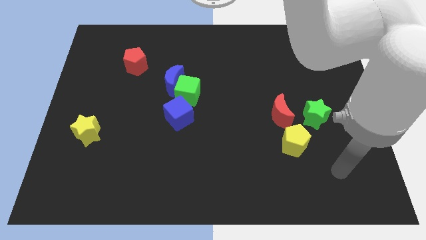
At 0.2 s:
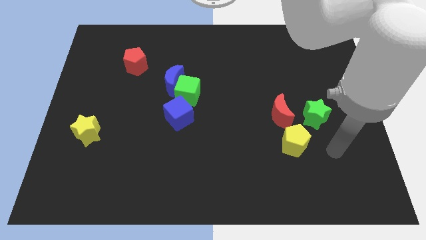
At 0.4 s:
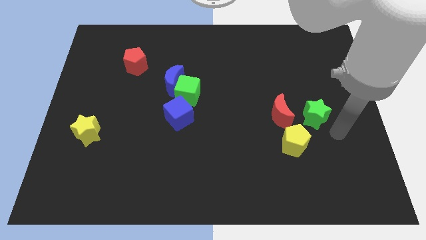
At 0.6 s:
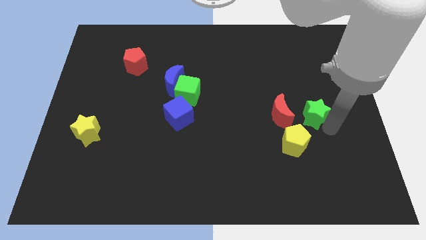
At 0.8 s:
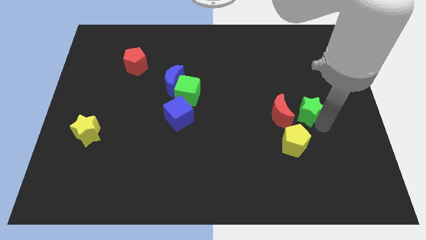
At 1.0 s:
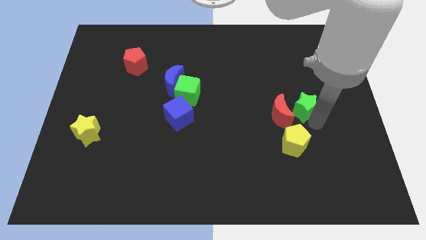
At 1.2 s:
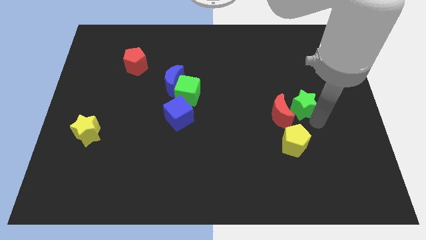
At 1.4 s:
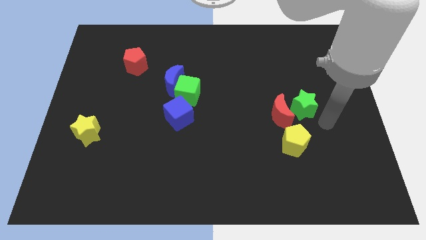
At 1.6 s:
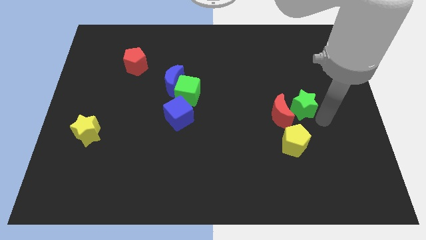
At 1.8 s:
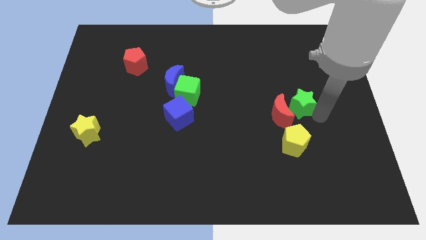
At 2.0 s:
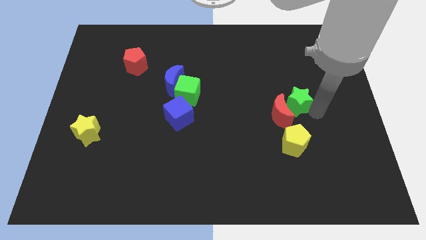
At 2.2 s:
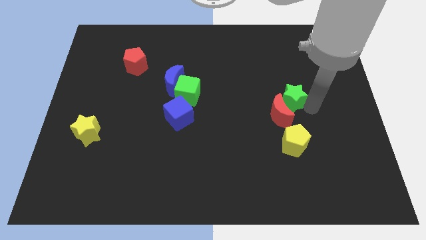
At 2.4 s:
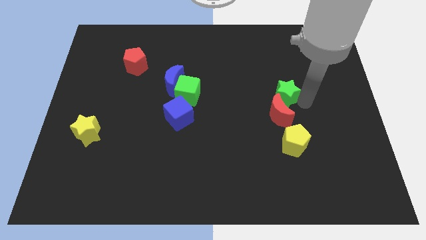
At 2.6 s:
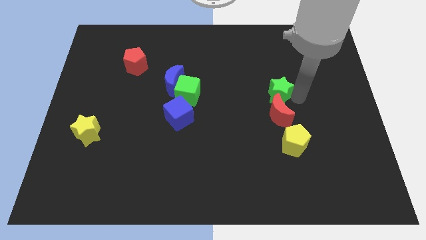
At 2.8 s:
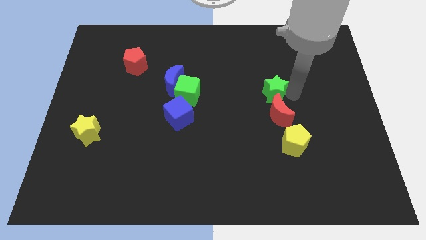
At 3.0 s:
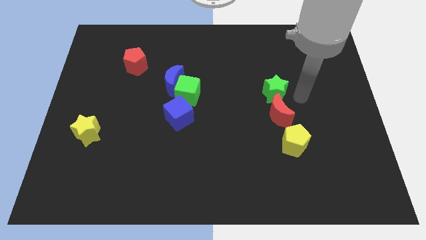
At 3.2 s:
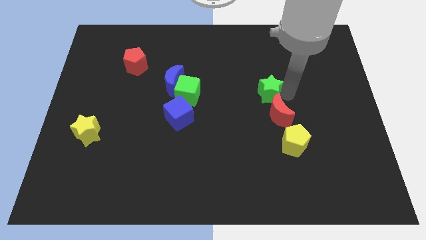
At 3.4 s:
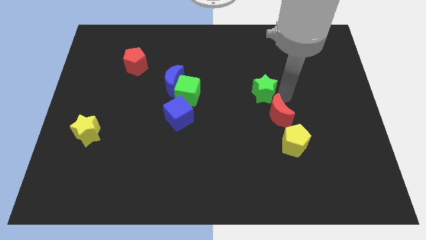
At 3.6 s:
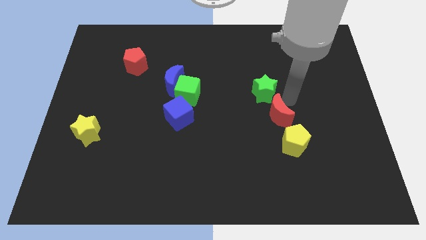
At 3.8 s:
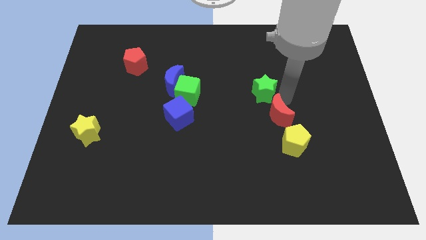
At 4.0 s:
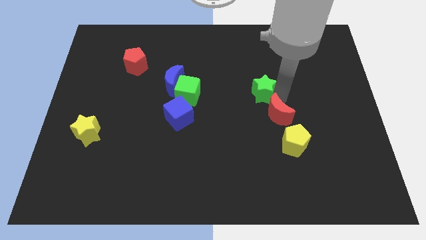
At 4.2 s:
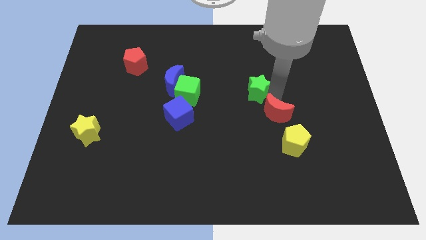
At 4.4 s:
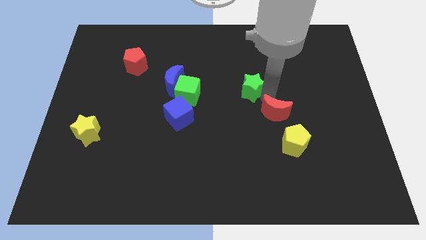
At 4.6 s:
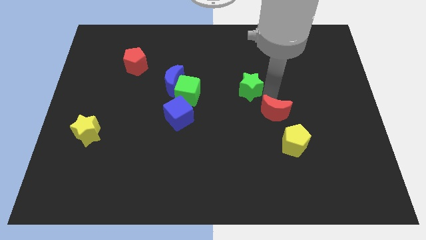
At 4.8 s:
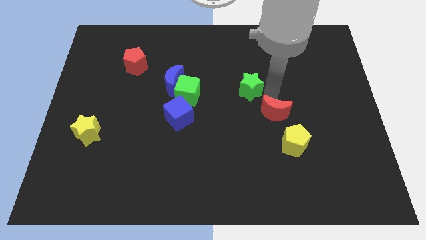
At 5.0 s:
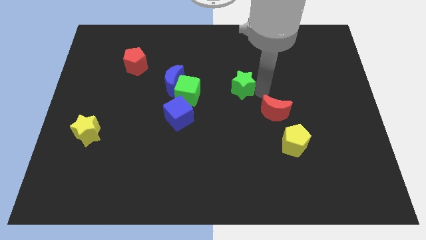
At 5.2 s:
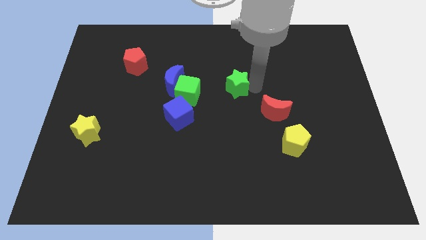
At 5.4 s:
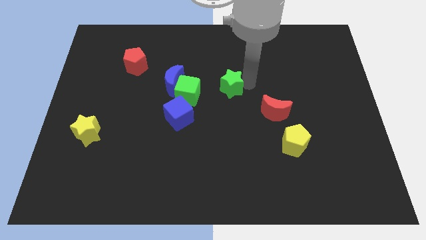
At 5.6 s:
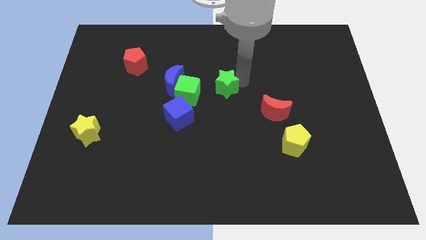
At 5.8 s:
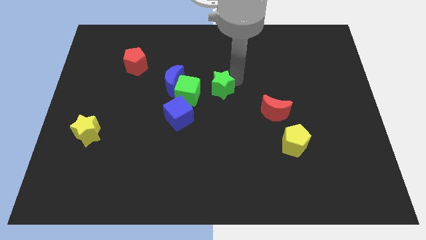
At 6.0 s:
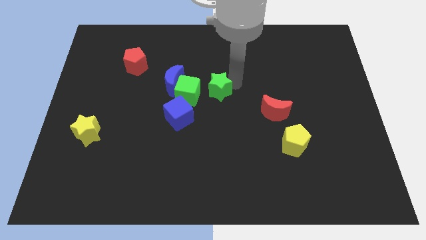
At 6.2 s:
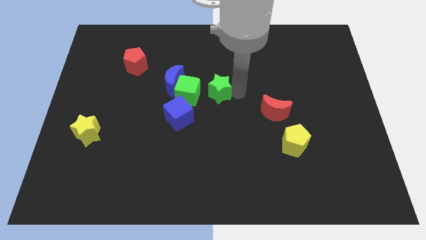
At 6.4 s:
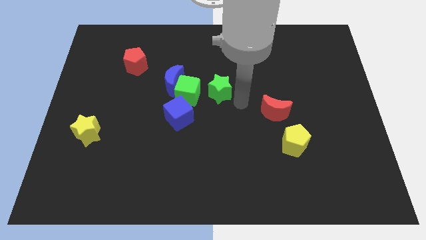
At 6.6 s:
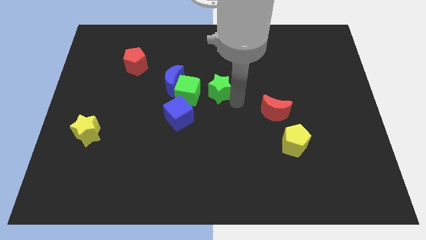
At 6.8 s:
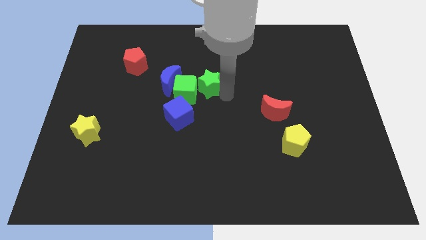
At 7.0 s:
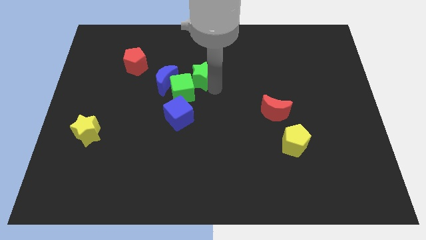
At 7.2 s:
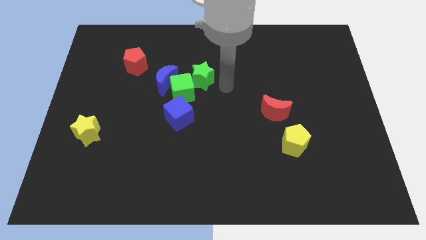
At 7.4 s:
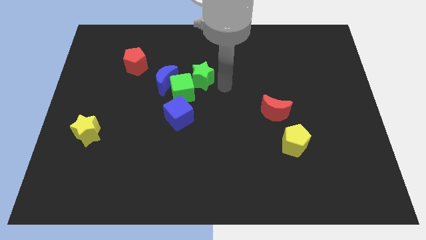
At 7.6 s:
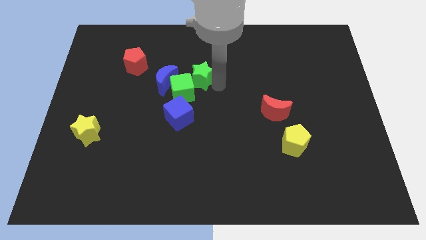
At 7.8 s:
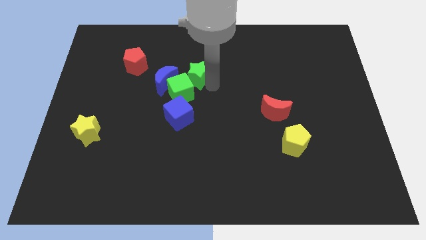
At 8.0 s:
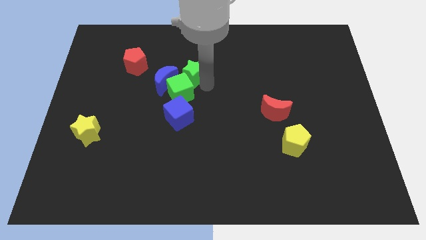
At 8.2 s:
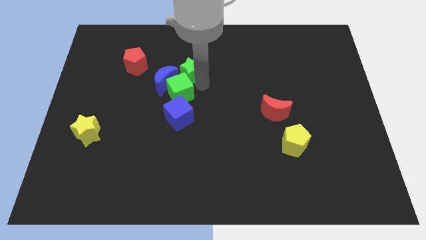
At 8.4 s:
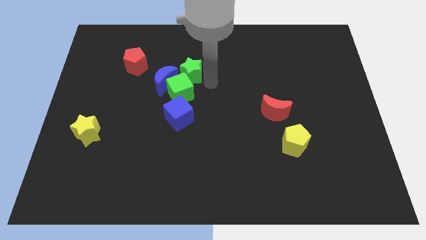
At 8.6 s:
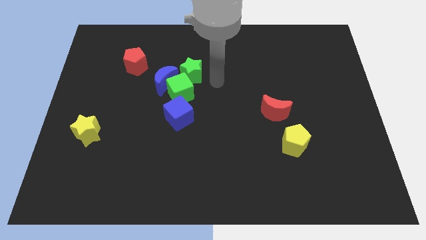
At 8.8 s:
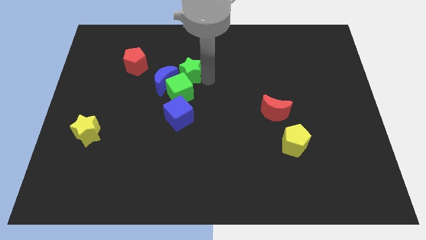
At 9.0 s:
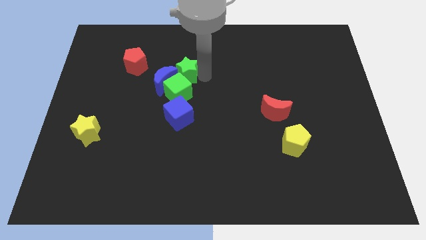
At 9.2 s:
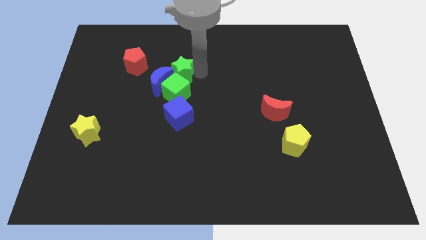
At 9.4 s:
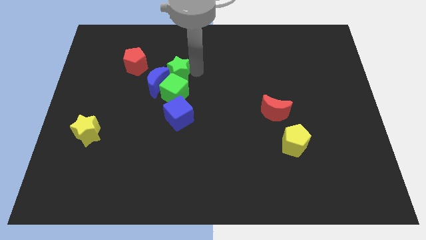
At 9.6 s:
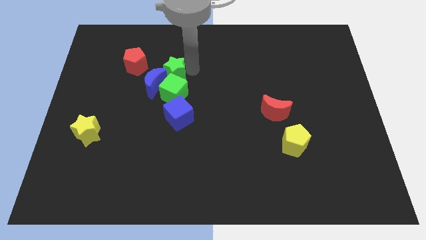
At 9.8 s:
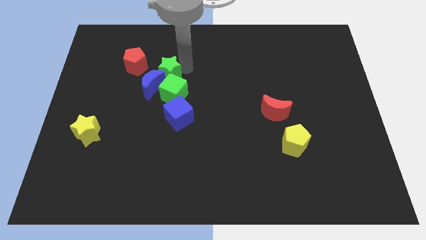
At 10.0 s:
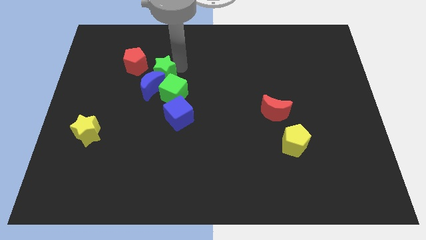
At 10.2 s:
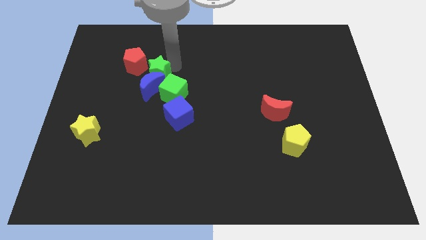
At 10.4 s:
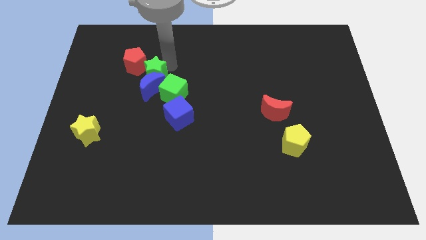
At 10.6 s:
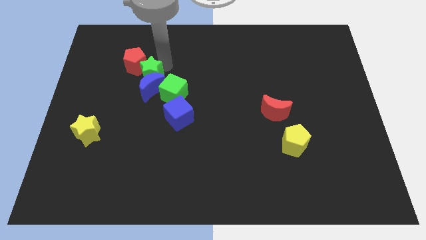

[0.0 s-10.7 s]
slide the green star to the bottom side of the red pentagon

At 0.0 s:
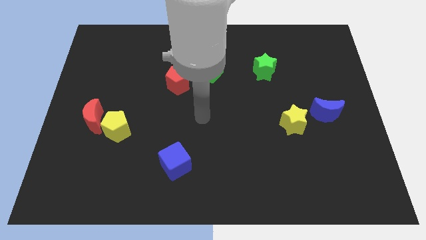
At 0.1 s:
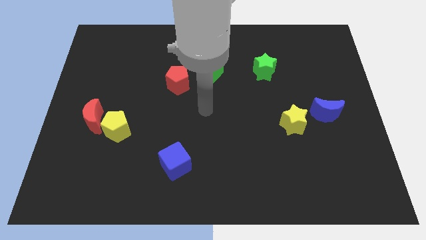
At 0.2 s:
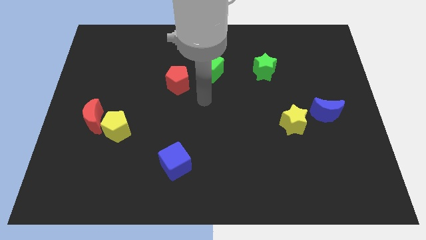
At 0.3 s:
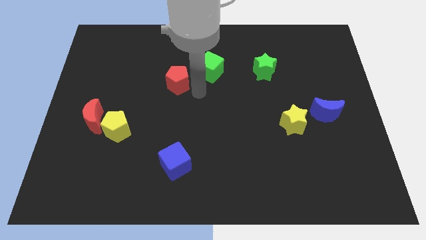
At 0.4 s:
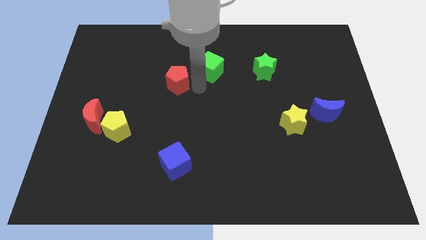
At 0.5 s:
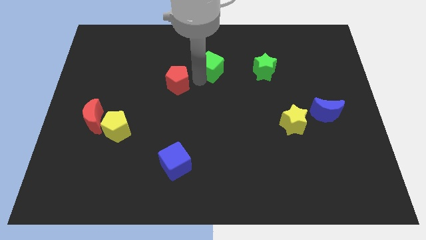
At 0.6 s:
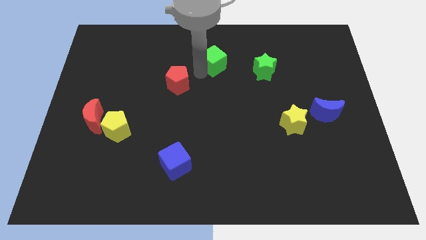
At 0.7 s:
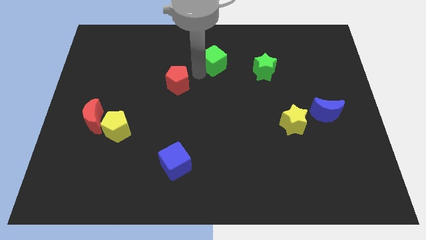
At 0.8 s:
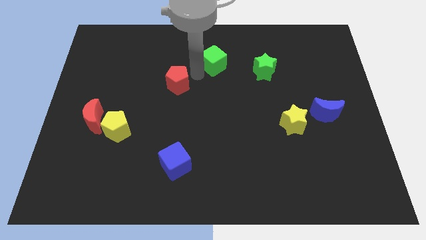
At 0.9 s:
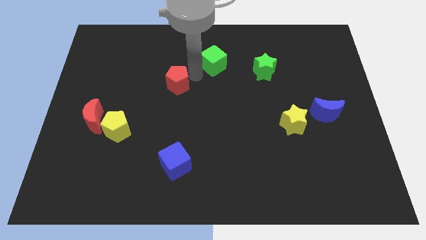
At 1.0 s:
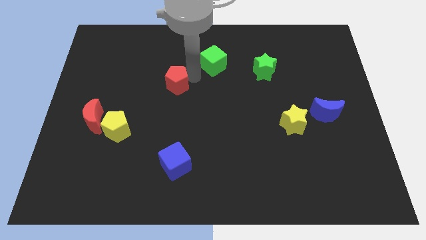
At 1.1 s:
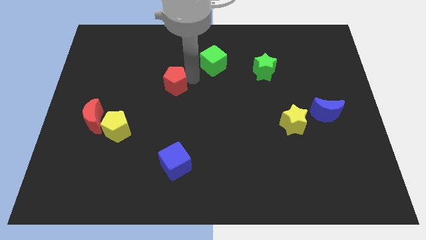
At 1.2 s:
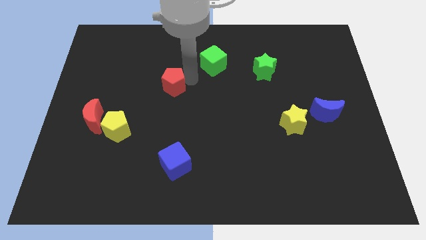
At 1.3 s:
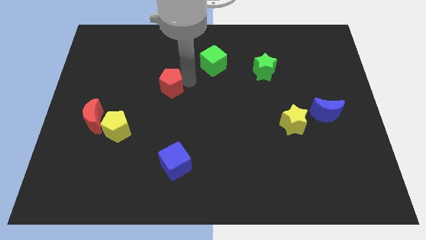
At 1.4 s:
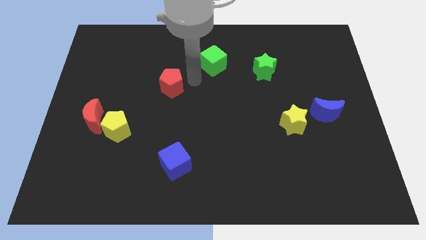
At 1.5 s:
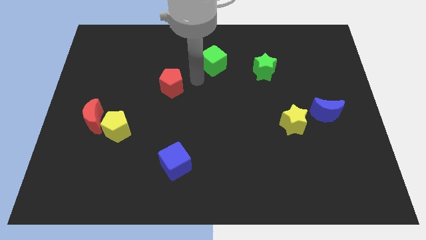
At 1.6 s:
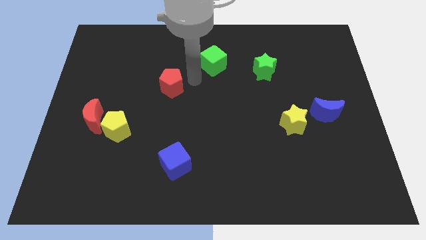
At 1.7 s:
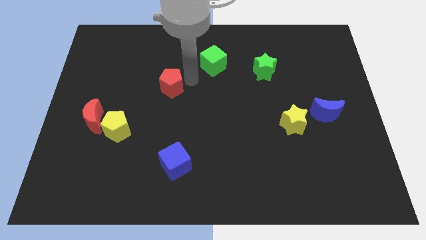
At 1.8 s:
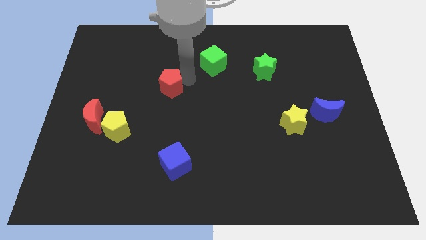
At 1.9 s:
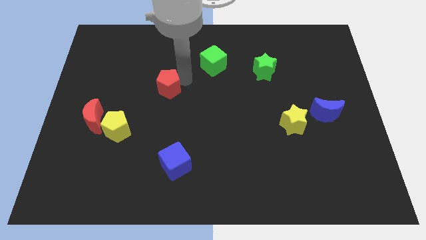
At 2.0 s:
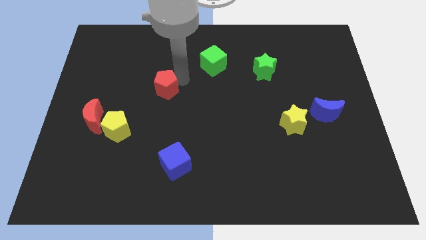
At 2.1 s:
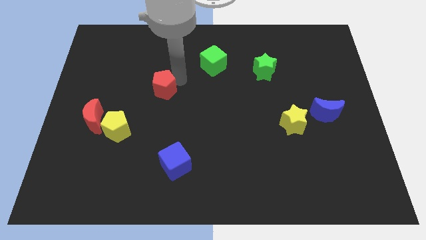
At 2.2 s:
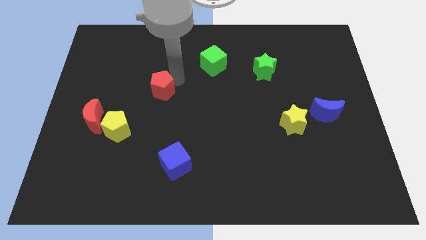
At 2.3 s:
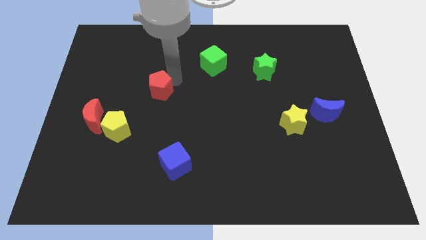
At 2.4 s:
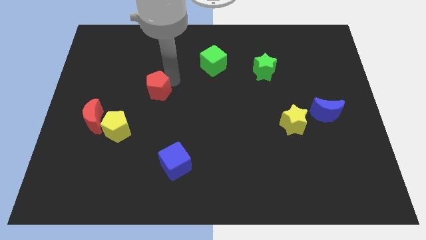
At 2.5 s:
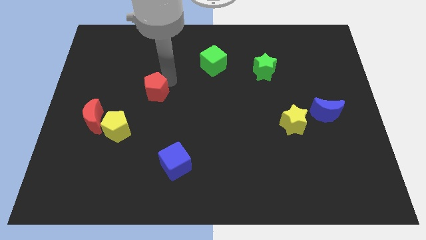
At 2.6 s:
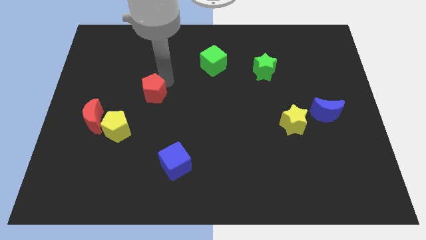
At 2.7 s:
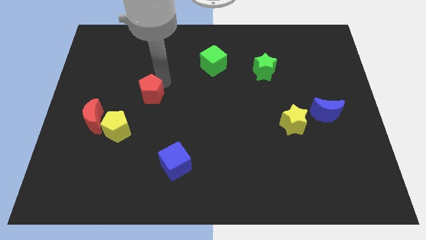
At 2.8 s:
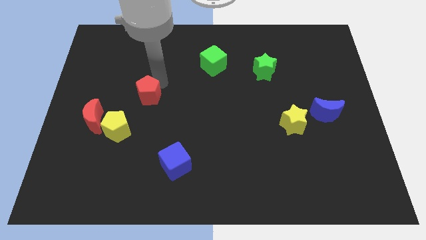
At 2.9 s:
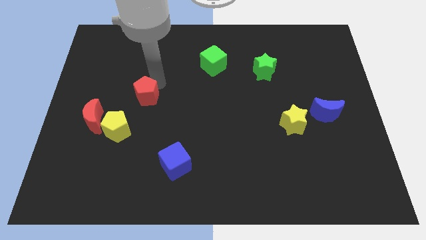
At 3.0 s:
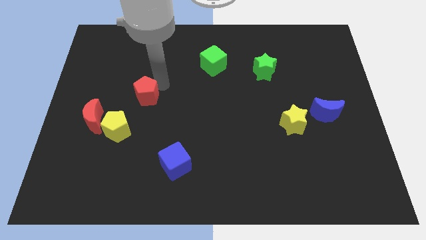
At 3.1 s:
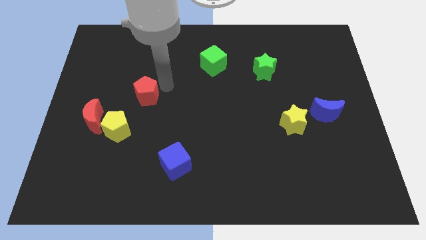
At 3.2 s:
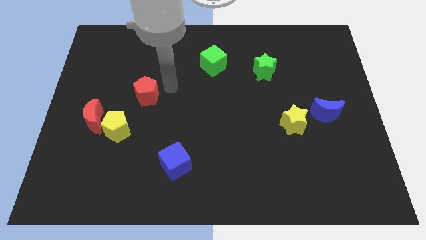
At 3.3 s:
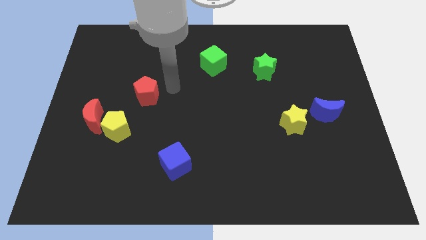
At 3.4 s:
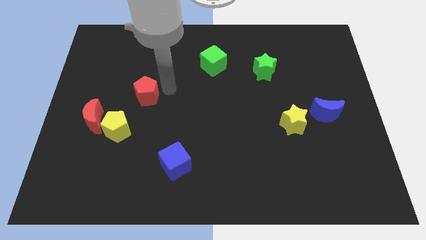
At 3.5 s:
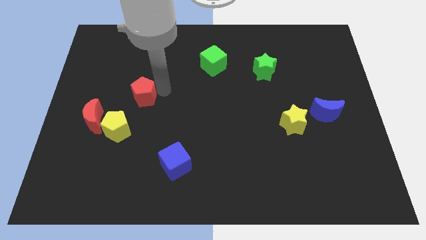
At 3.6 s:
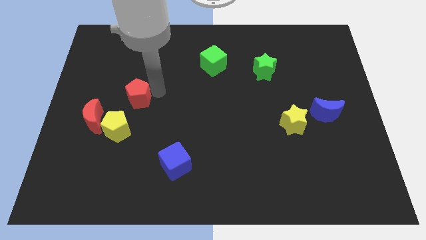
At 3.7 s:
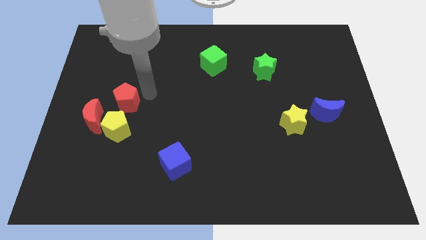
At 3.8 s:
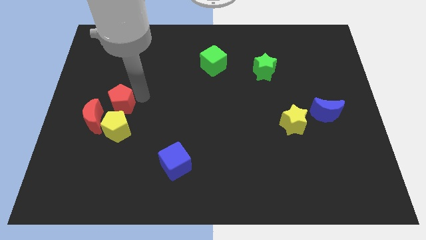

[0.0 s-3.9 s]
move the red pentagon to the top left of the yellow pentagon
